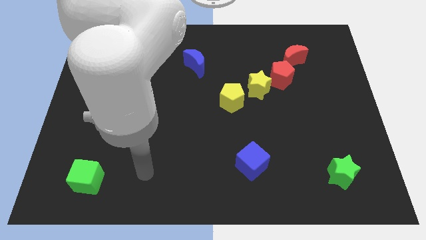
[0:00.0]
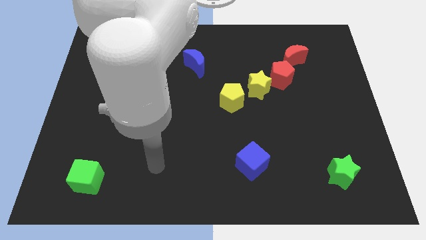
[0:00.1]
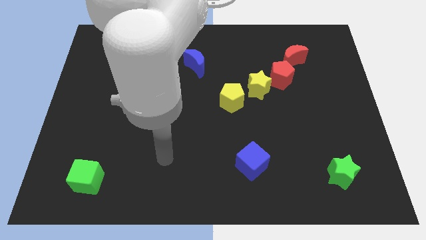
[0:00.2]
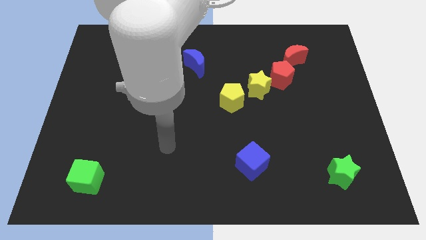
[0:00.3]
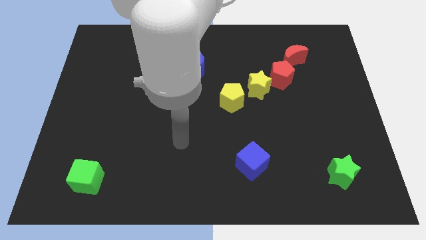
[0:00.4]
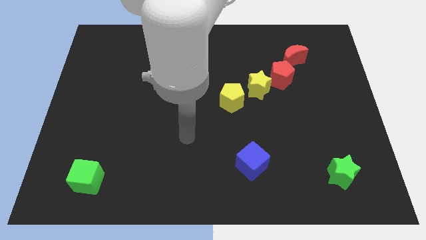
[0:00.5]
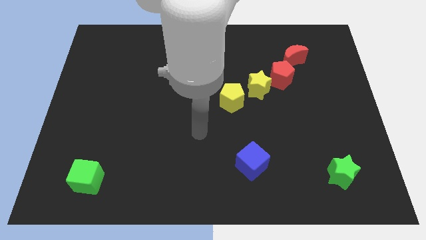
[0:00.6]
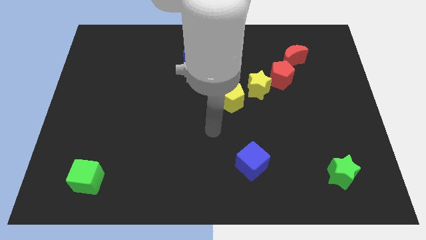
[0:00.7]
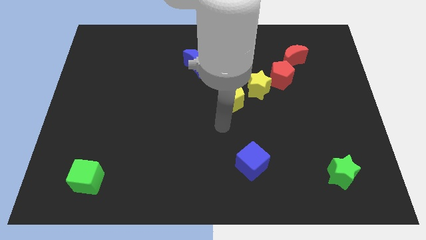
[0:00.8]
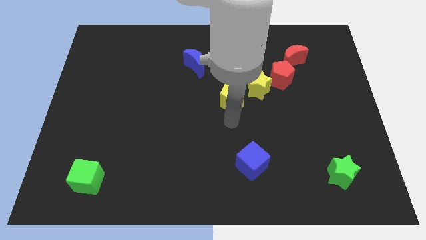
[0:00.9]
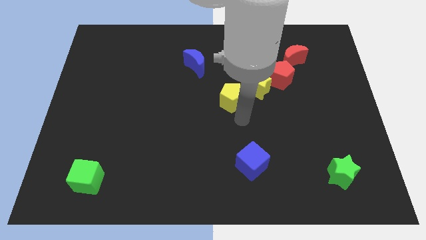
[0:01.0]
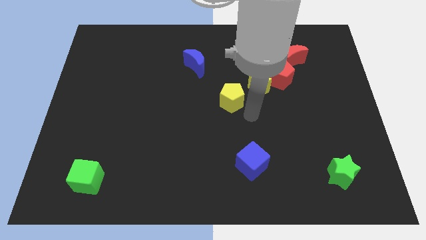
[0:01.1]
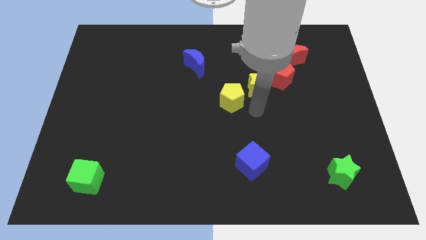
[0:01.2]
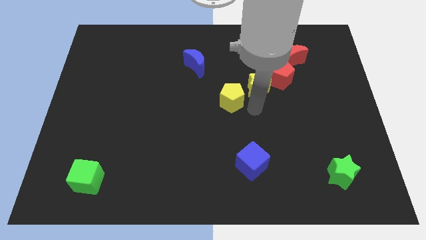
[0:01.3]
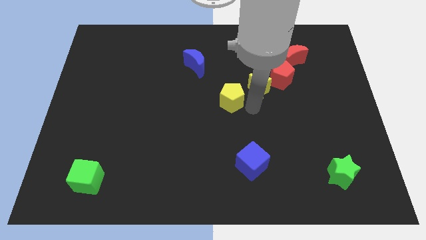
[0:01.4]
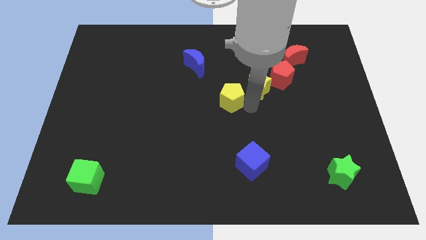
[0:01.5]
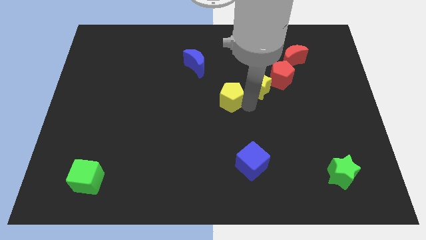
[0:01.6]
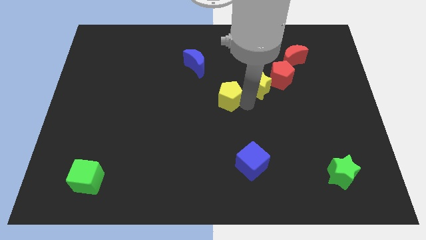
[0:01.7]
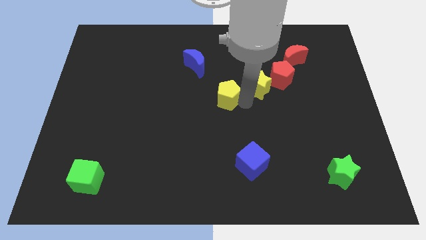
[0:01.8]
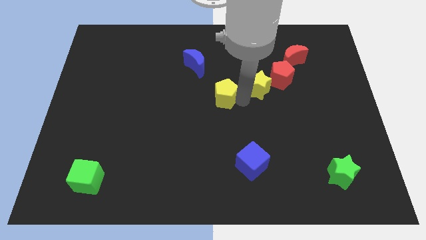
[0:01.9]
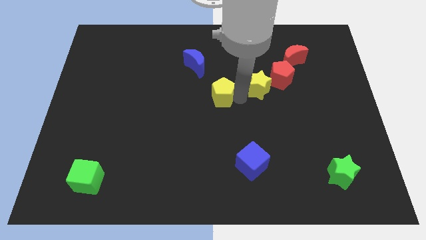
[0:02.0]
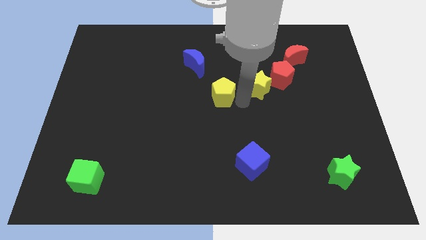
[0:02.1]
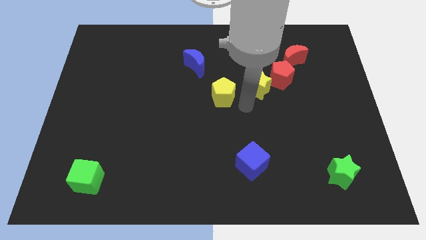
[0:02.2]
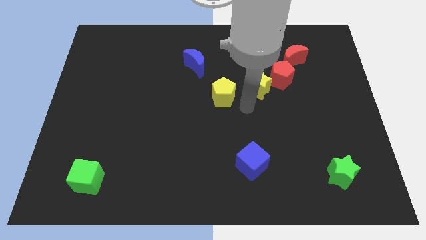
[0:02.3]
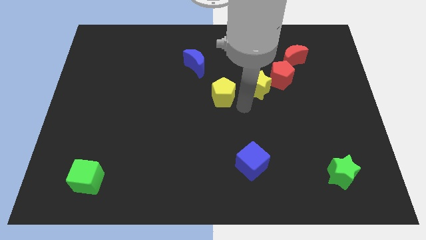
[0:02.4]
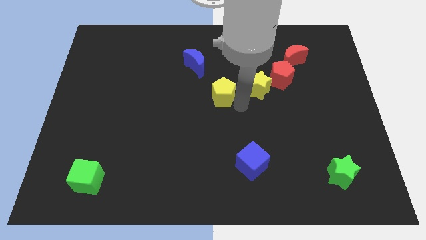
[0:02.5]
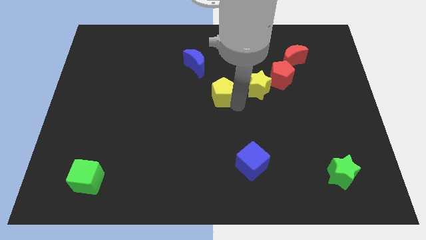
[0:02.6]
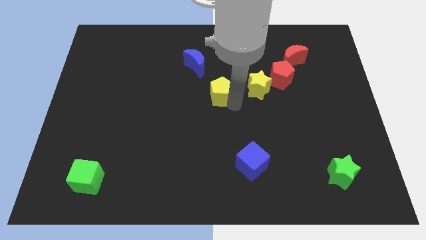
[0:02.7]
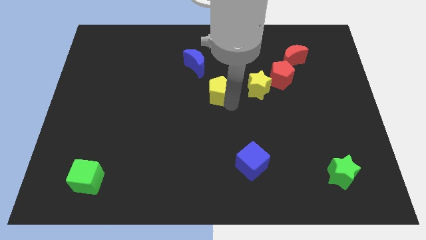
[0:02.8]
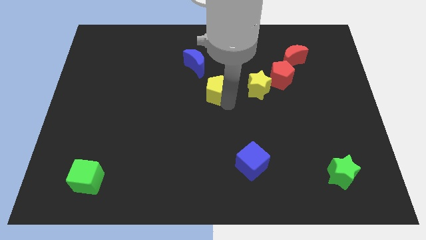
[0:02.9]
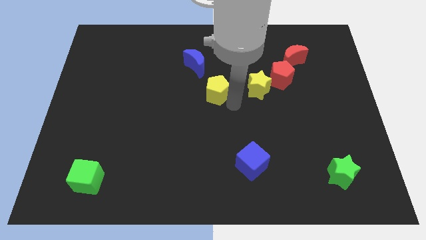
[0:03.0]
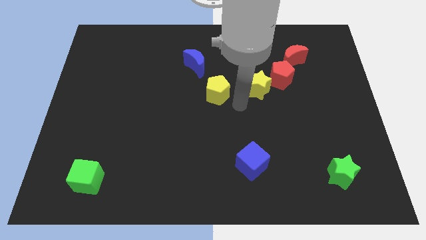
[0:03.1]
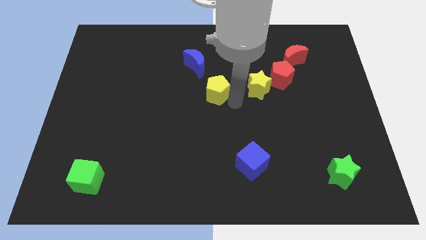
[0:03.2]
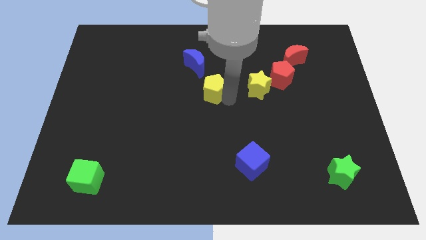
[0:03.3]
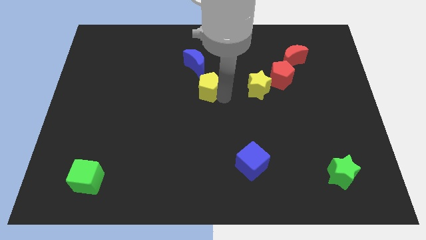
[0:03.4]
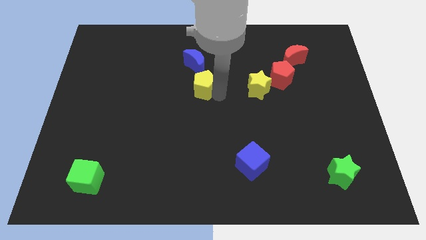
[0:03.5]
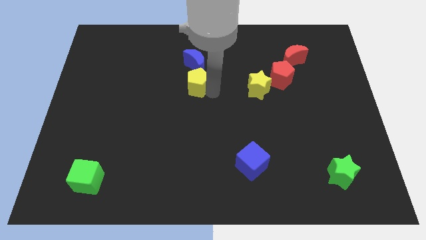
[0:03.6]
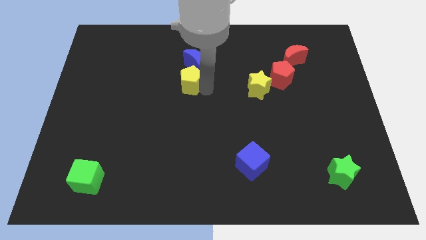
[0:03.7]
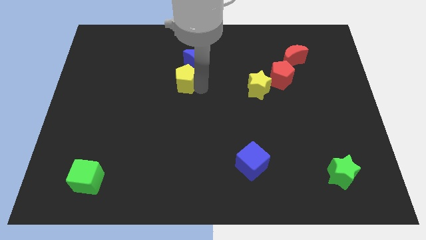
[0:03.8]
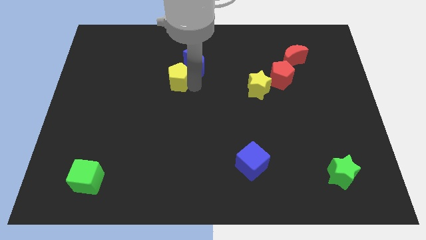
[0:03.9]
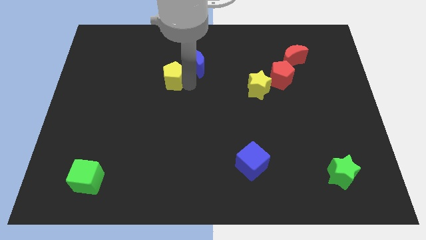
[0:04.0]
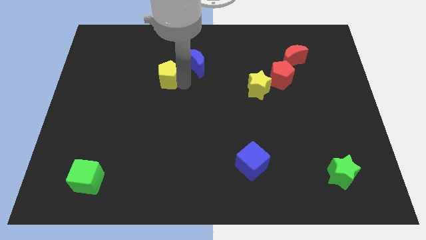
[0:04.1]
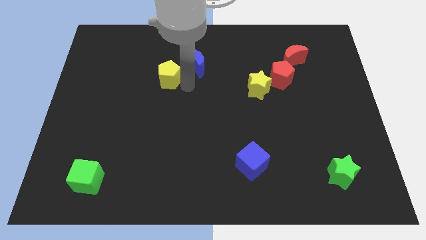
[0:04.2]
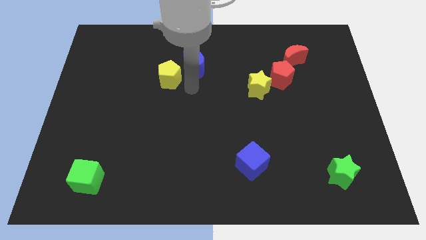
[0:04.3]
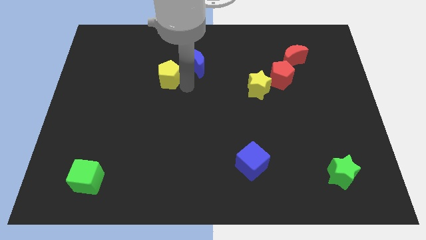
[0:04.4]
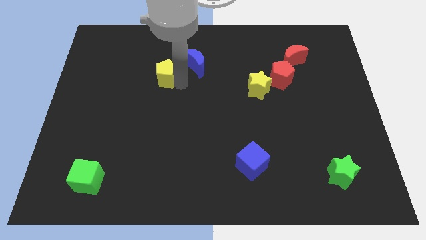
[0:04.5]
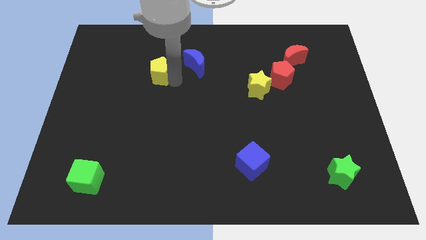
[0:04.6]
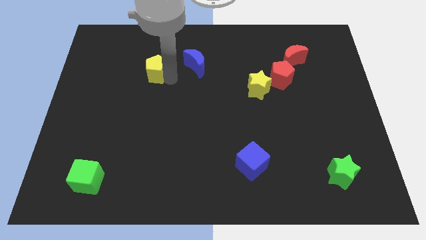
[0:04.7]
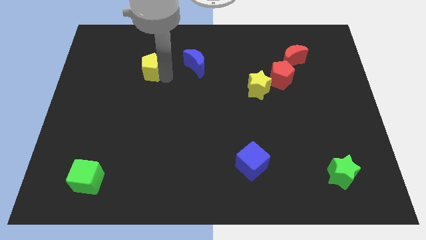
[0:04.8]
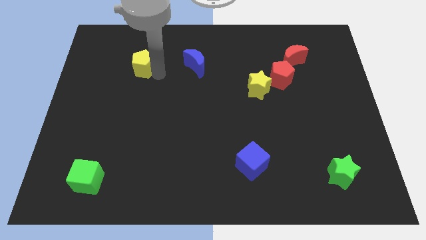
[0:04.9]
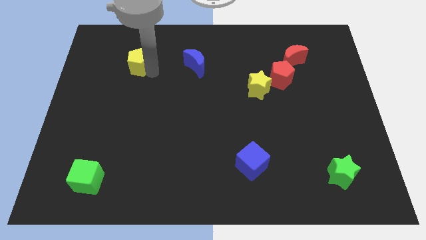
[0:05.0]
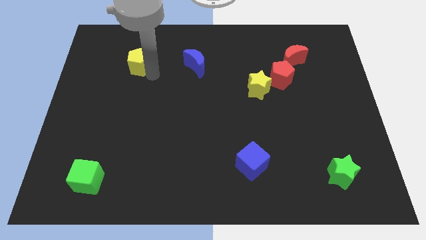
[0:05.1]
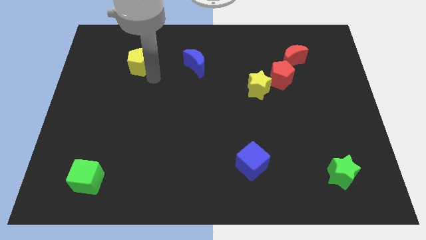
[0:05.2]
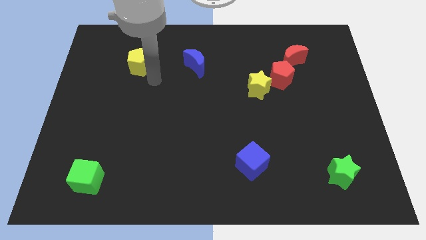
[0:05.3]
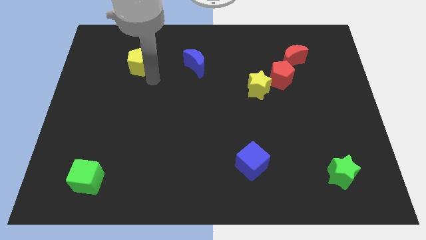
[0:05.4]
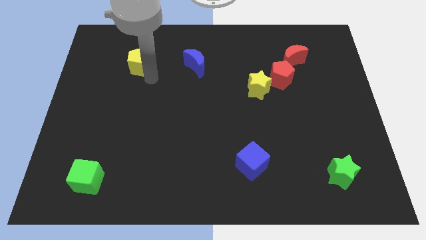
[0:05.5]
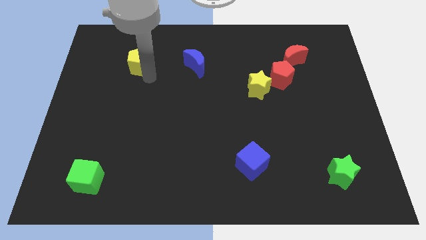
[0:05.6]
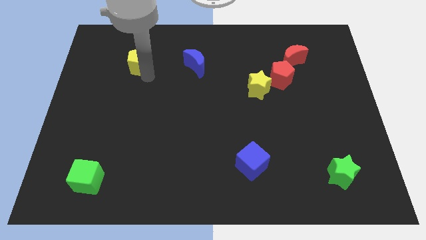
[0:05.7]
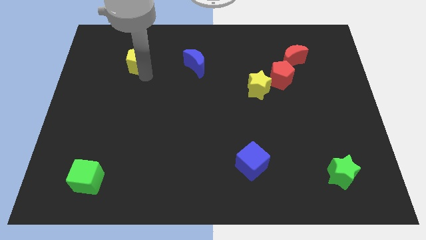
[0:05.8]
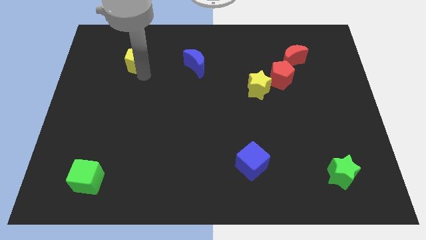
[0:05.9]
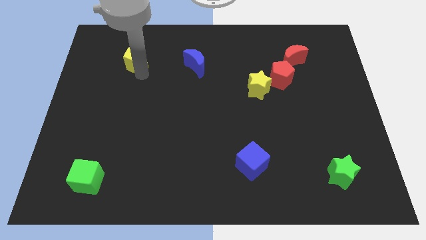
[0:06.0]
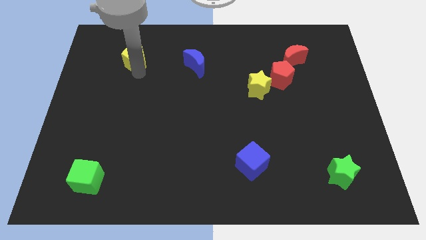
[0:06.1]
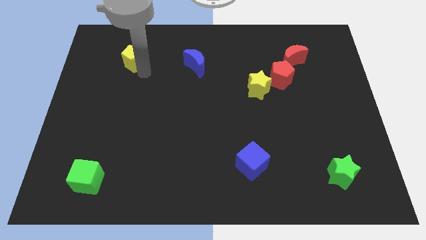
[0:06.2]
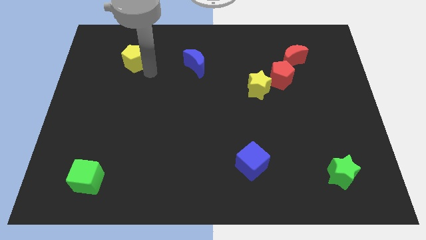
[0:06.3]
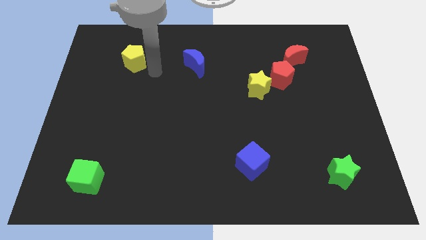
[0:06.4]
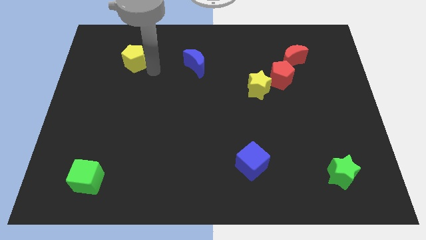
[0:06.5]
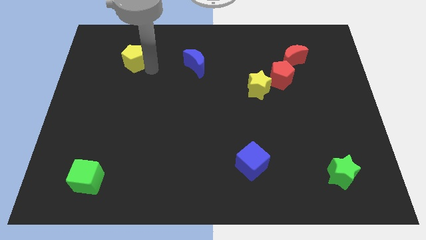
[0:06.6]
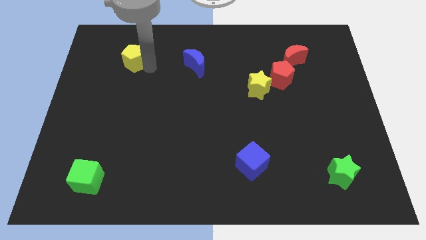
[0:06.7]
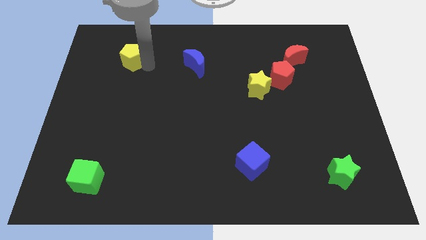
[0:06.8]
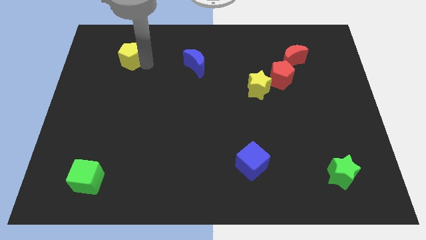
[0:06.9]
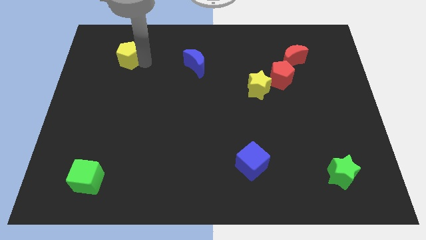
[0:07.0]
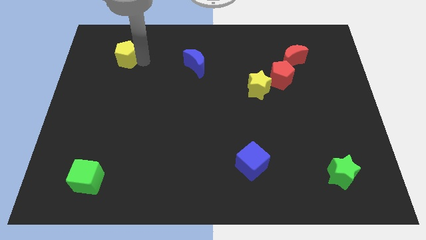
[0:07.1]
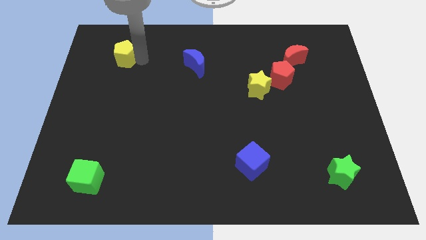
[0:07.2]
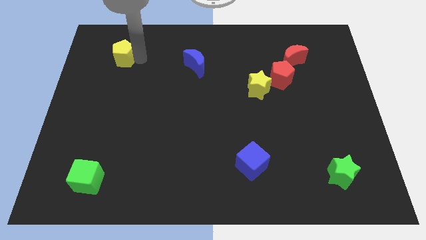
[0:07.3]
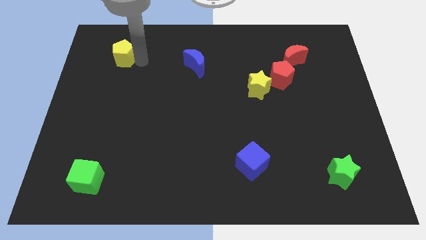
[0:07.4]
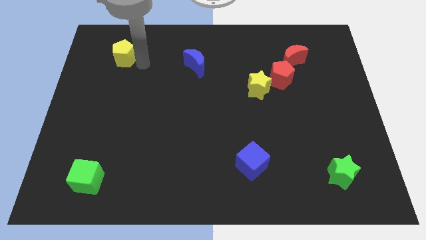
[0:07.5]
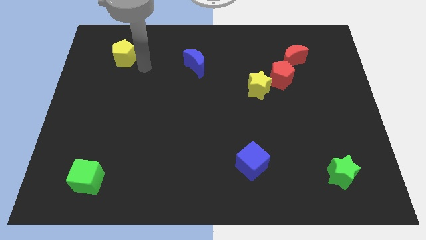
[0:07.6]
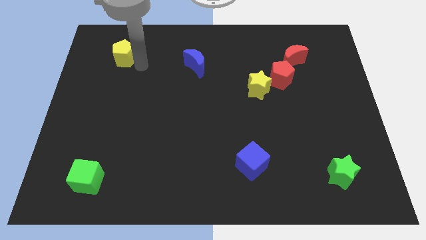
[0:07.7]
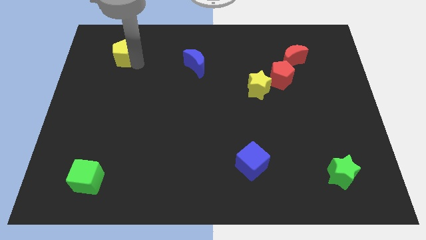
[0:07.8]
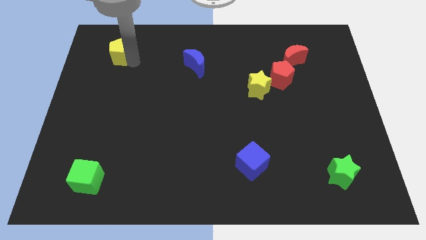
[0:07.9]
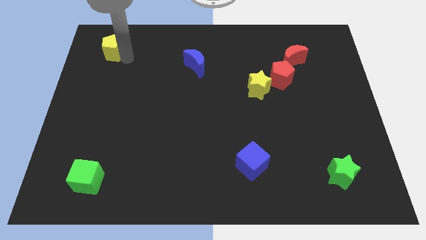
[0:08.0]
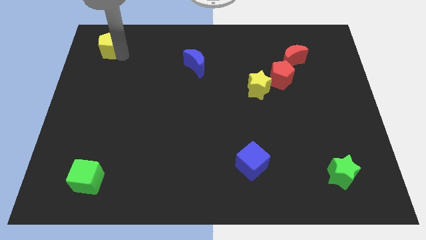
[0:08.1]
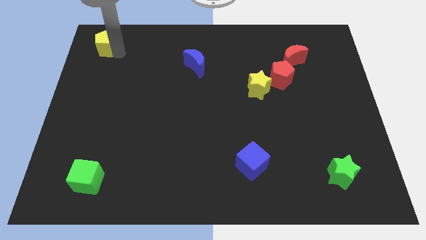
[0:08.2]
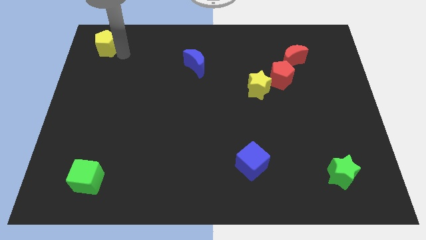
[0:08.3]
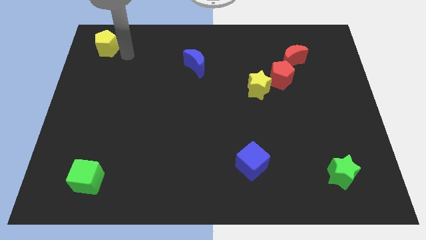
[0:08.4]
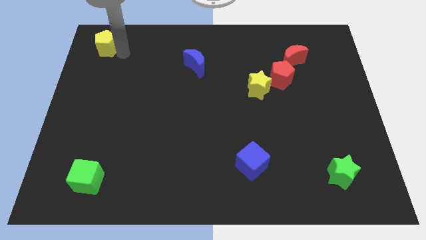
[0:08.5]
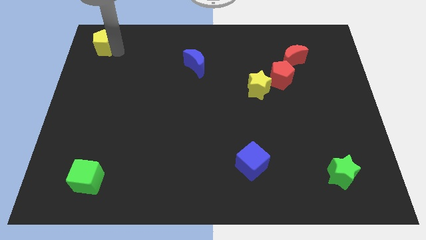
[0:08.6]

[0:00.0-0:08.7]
push the yellow pentagon to the top left corner
